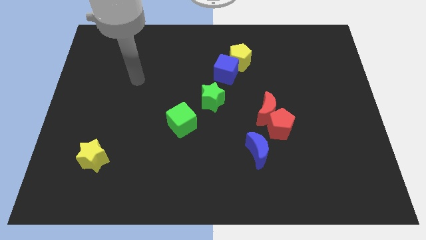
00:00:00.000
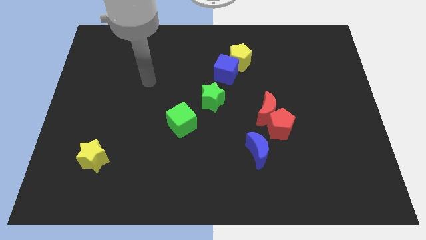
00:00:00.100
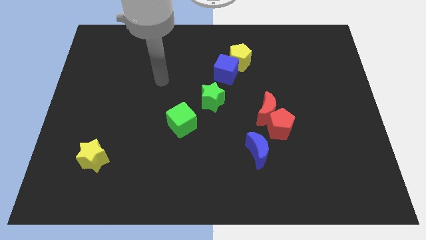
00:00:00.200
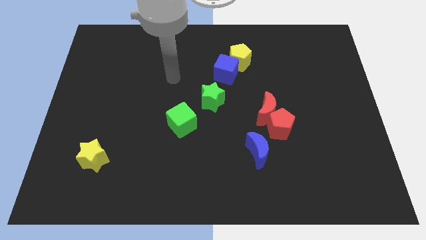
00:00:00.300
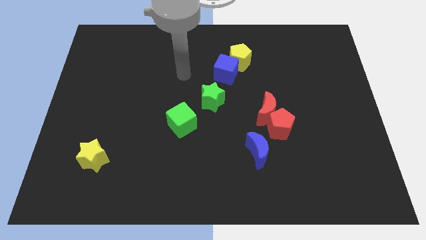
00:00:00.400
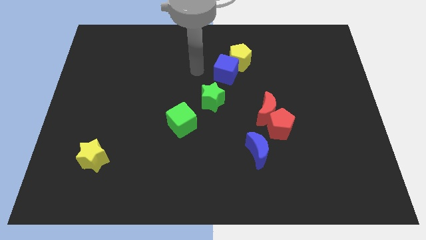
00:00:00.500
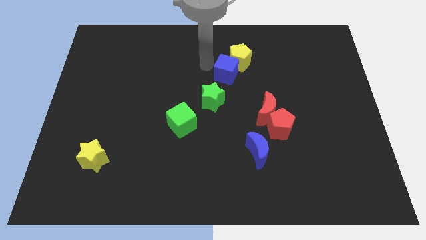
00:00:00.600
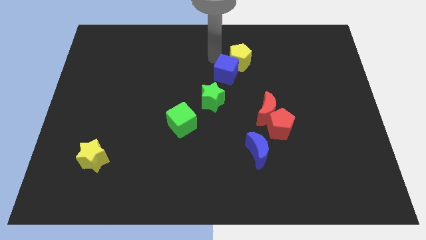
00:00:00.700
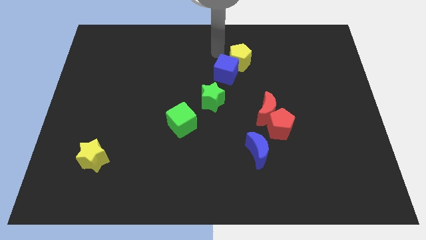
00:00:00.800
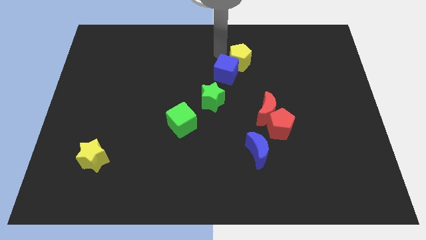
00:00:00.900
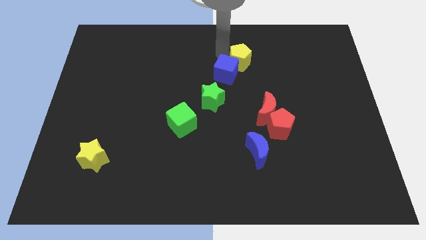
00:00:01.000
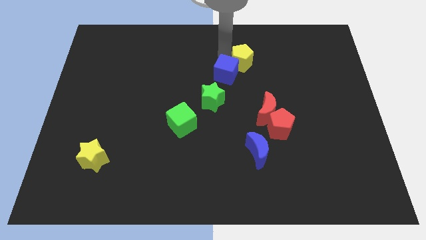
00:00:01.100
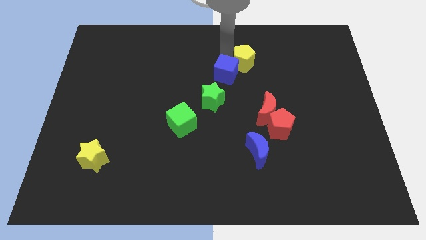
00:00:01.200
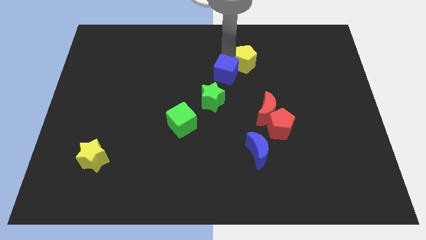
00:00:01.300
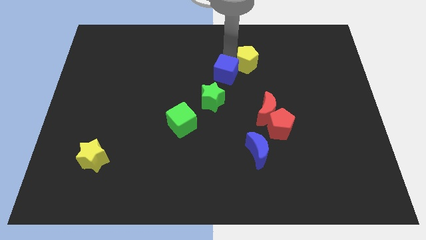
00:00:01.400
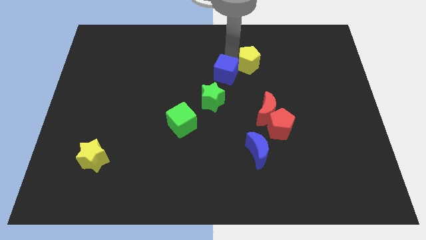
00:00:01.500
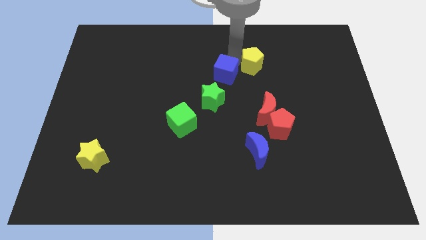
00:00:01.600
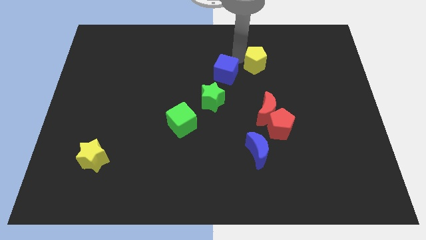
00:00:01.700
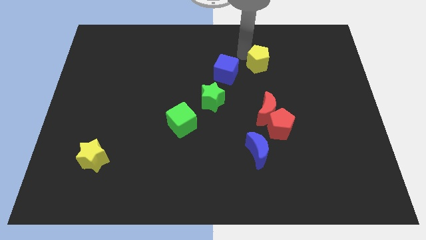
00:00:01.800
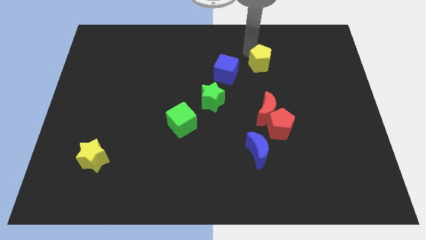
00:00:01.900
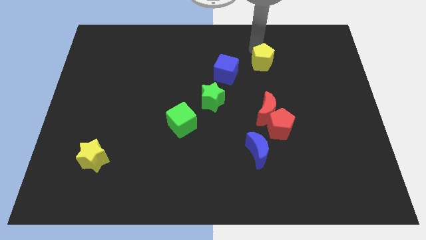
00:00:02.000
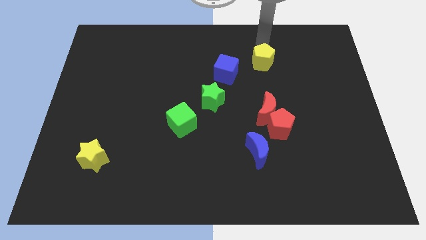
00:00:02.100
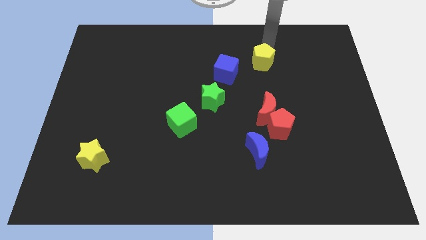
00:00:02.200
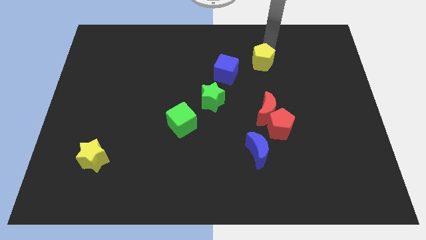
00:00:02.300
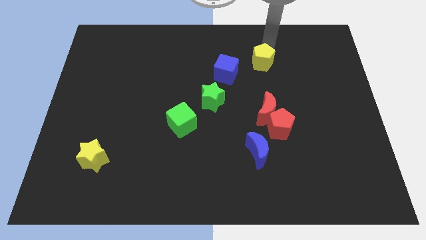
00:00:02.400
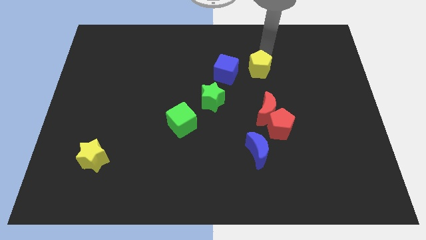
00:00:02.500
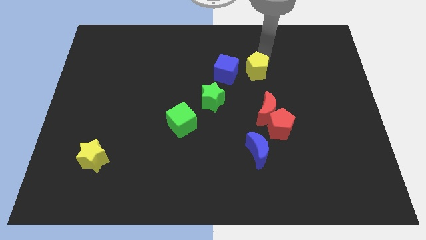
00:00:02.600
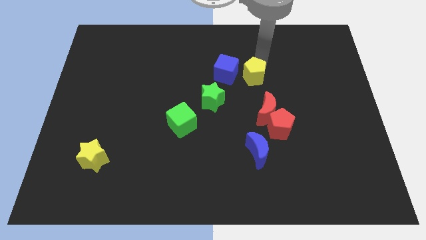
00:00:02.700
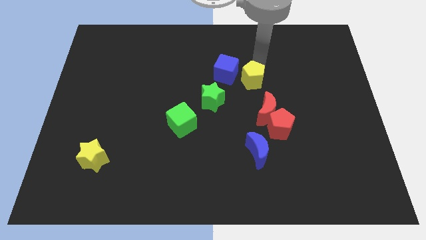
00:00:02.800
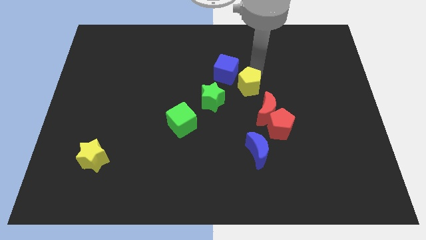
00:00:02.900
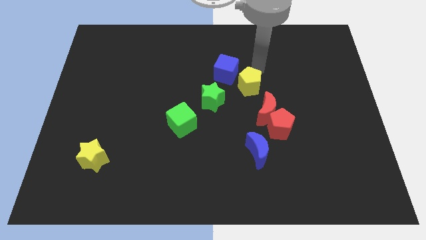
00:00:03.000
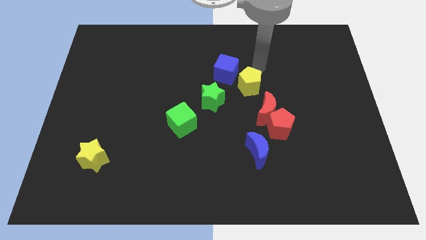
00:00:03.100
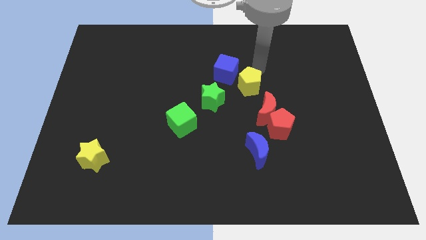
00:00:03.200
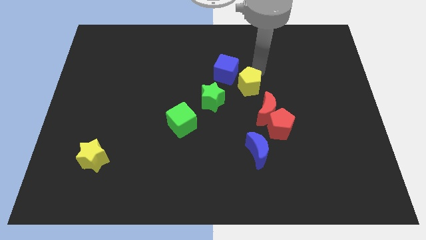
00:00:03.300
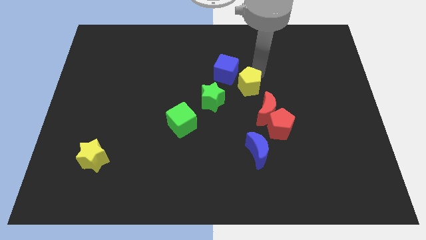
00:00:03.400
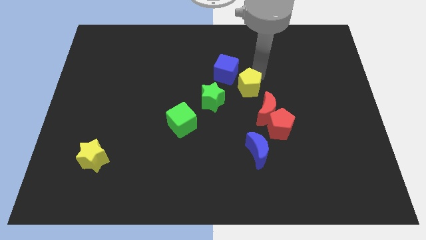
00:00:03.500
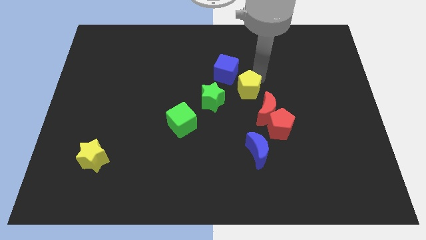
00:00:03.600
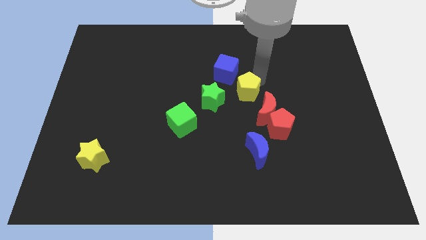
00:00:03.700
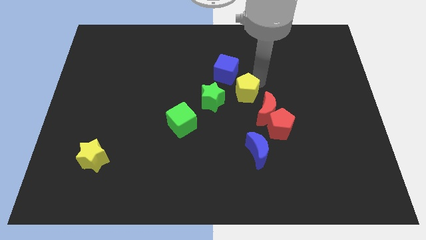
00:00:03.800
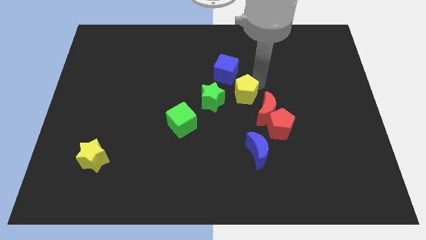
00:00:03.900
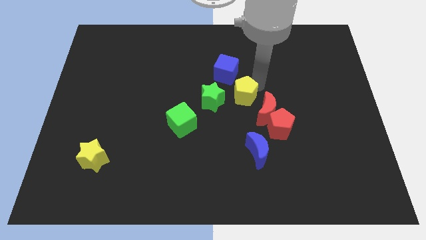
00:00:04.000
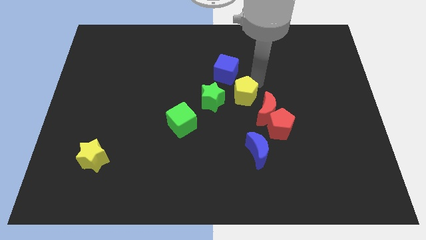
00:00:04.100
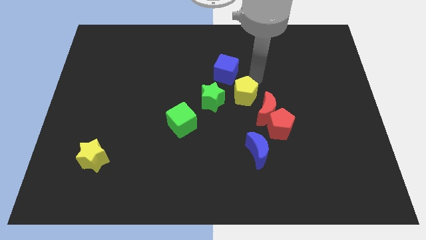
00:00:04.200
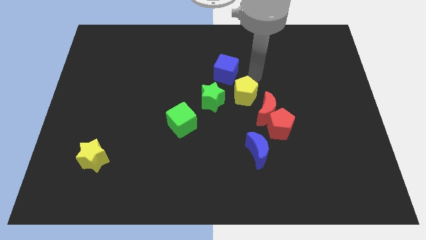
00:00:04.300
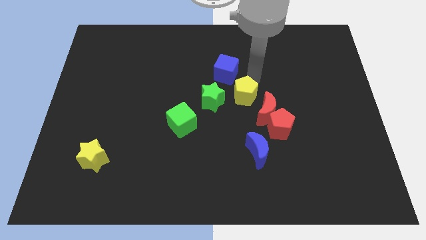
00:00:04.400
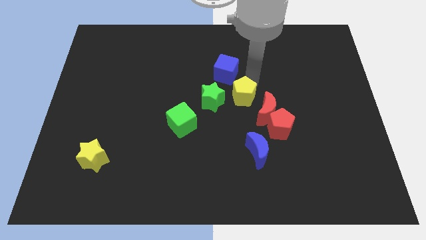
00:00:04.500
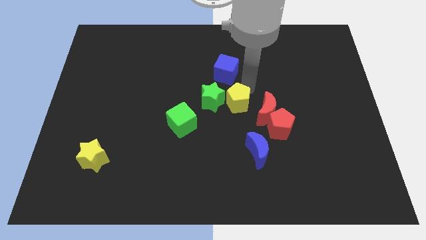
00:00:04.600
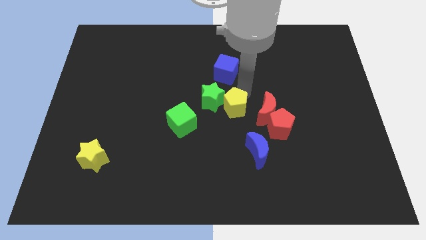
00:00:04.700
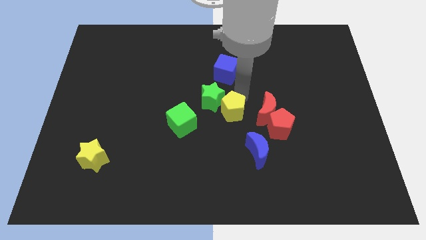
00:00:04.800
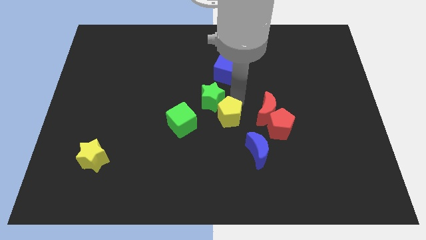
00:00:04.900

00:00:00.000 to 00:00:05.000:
push the yellow pentagon diagonally up and to the left of the blue moon

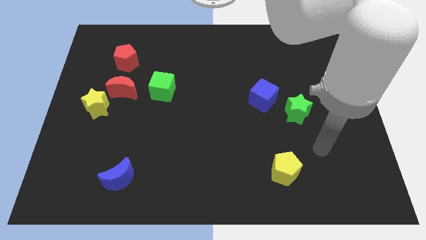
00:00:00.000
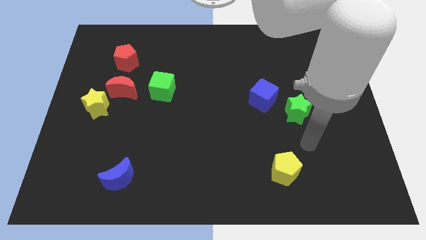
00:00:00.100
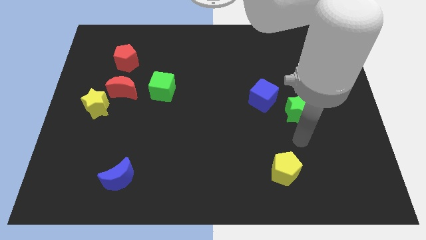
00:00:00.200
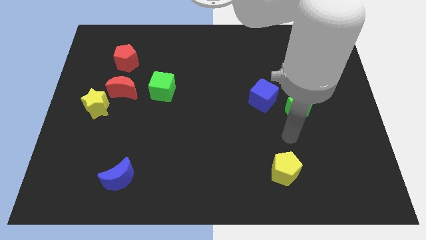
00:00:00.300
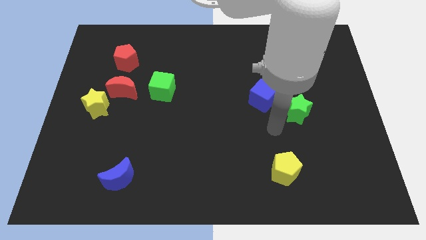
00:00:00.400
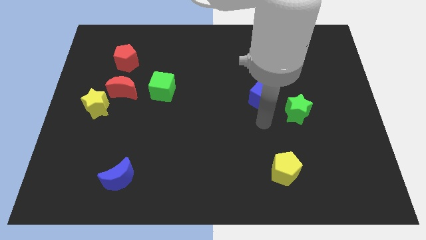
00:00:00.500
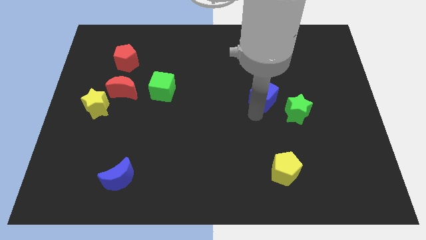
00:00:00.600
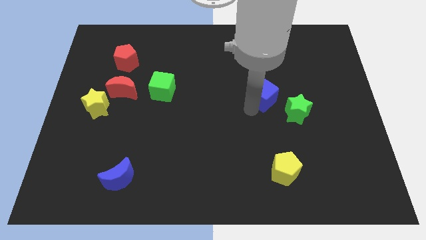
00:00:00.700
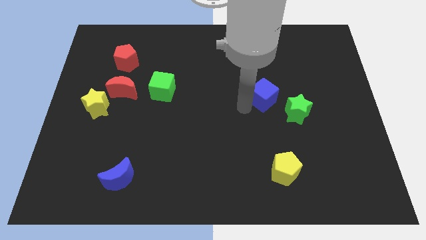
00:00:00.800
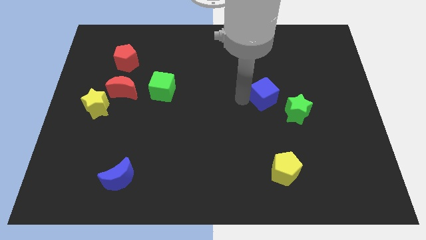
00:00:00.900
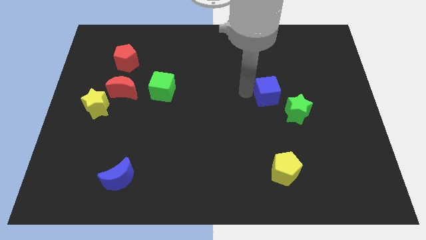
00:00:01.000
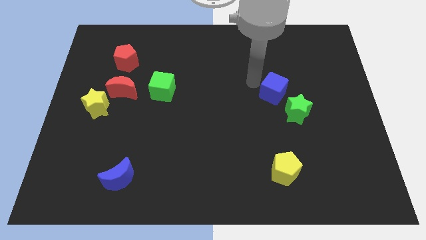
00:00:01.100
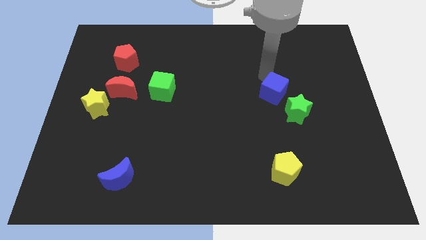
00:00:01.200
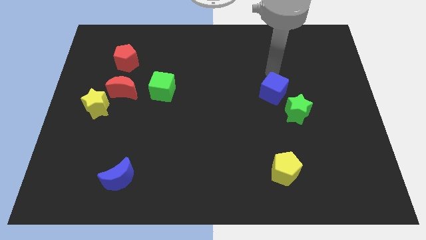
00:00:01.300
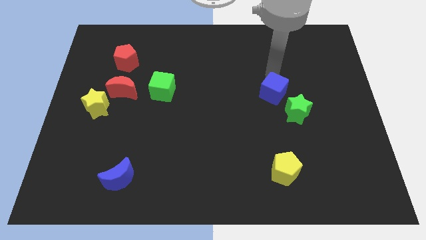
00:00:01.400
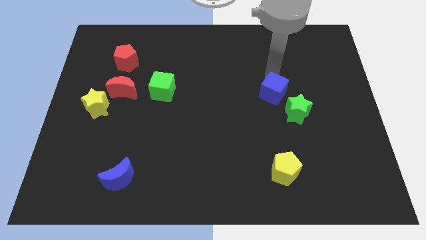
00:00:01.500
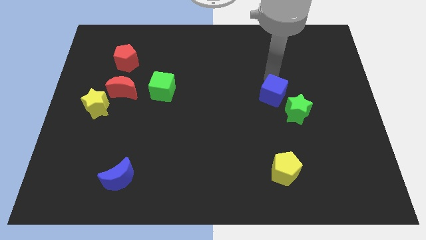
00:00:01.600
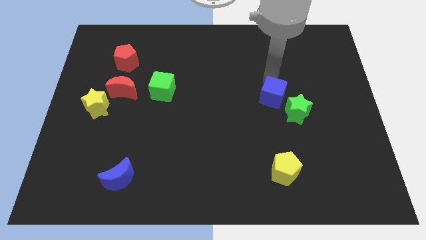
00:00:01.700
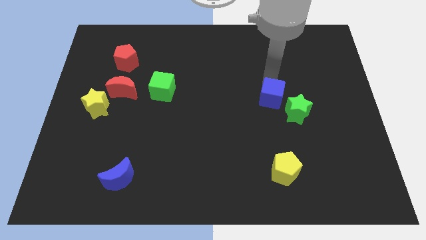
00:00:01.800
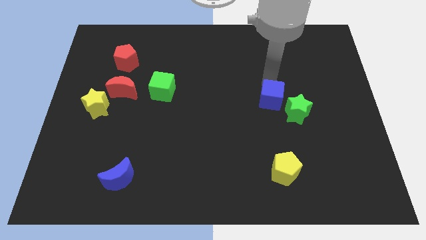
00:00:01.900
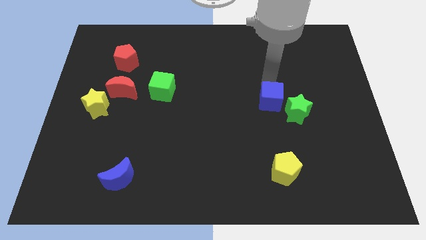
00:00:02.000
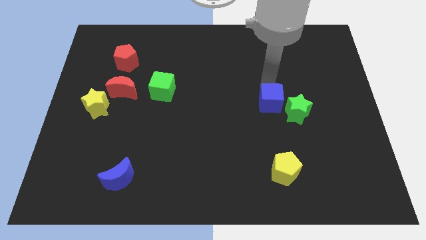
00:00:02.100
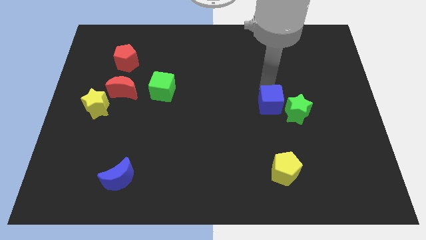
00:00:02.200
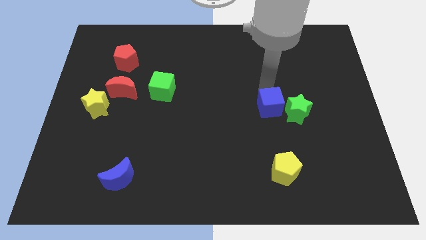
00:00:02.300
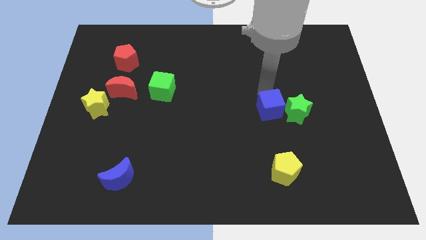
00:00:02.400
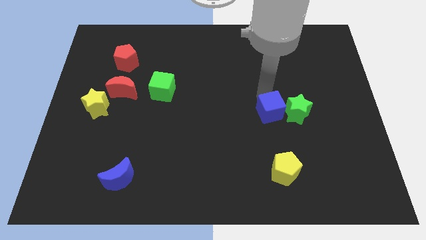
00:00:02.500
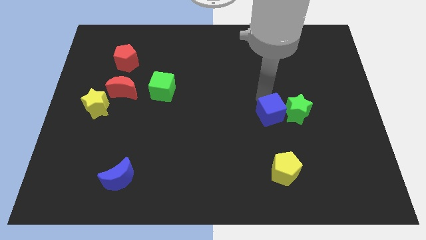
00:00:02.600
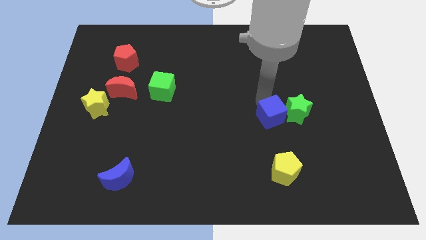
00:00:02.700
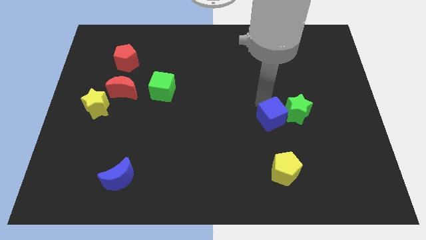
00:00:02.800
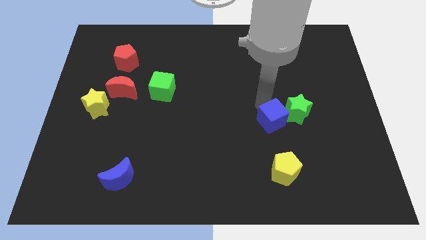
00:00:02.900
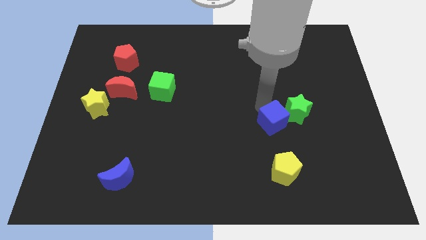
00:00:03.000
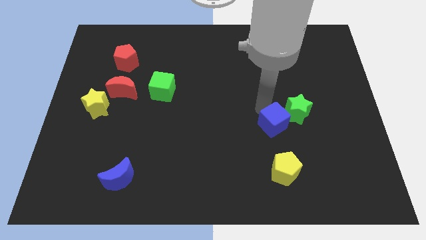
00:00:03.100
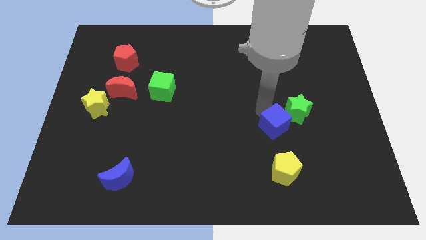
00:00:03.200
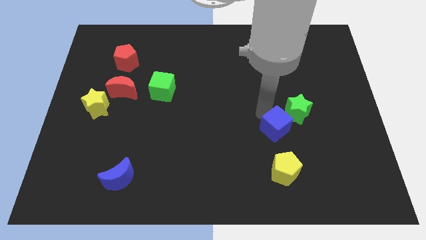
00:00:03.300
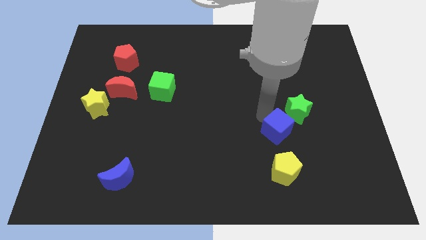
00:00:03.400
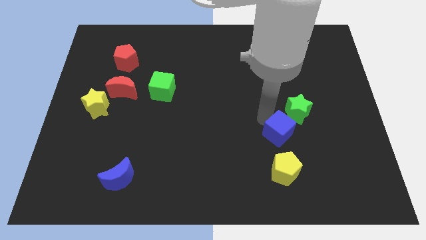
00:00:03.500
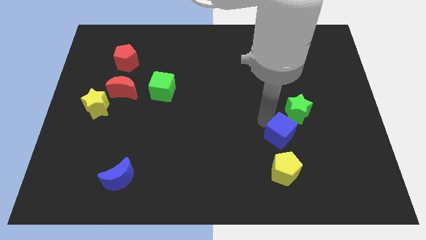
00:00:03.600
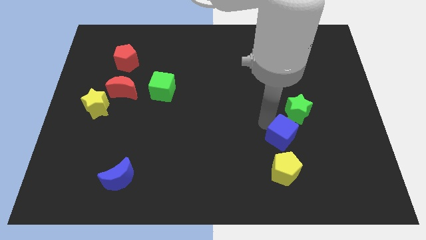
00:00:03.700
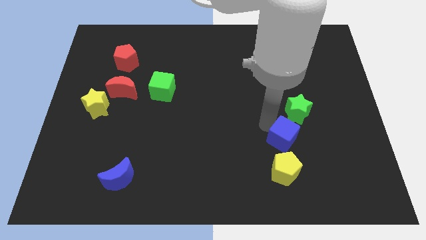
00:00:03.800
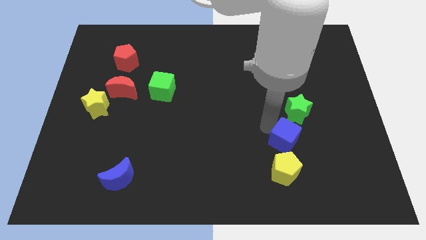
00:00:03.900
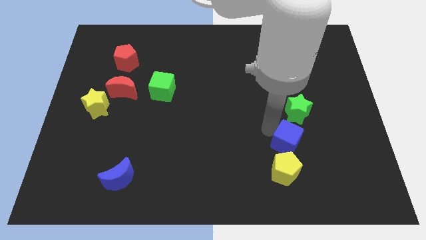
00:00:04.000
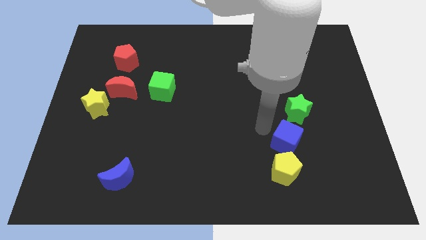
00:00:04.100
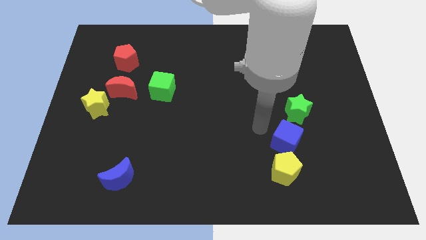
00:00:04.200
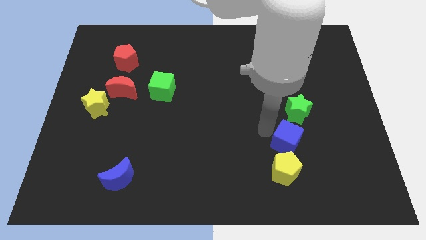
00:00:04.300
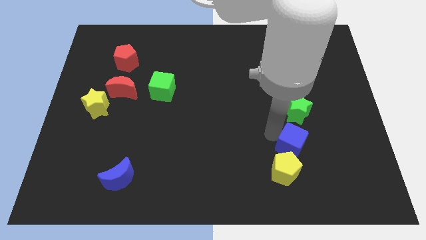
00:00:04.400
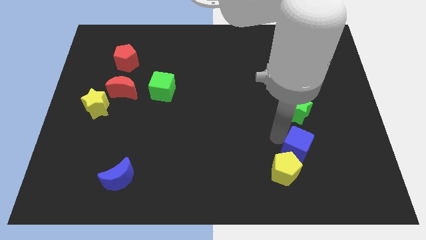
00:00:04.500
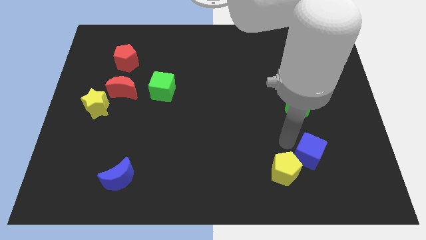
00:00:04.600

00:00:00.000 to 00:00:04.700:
push the blue cube to the right side of the yellow pentagon
